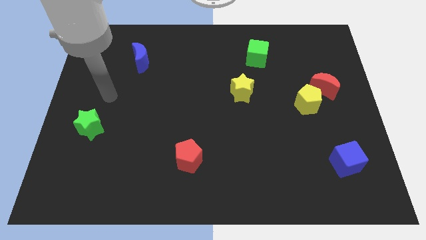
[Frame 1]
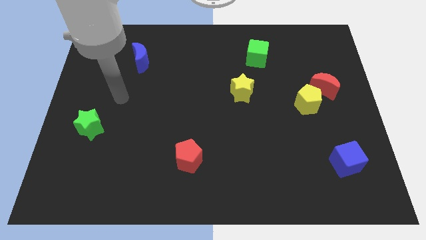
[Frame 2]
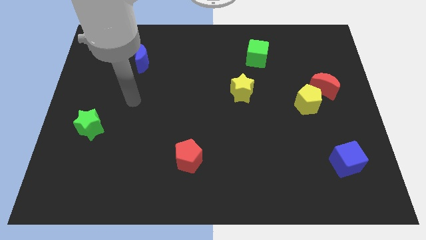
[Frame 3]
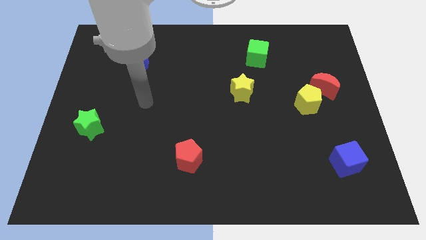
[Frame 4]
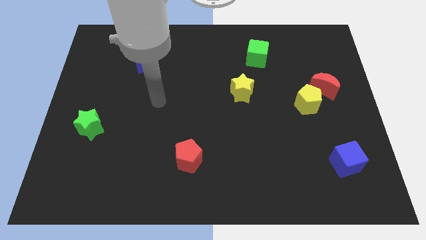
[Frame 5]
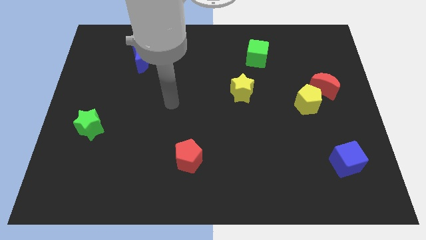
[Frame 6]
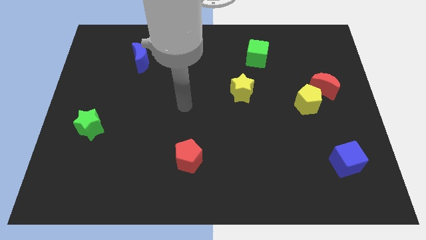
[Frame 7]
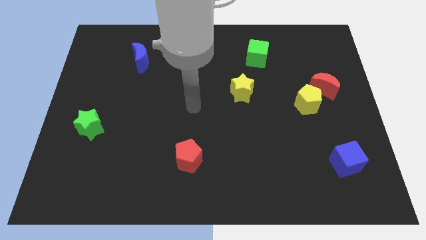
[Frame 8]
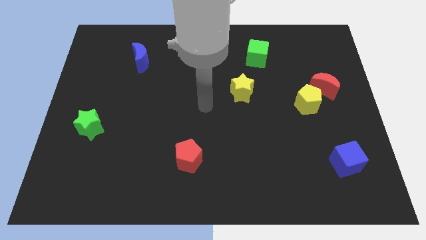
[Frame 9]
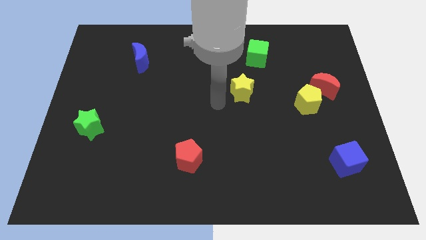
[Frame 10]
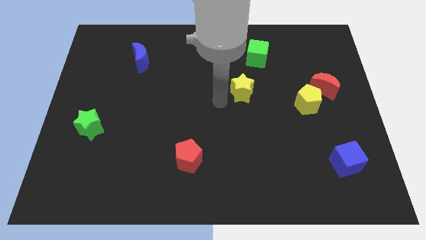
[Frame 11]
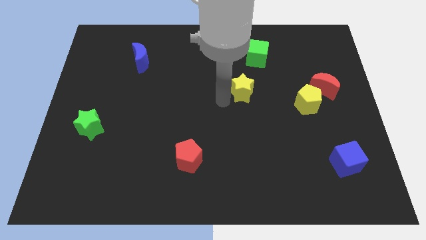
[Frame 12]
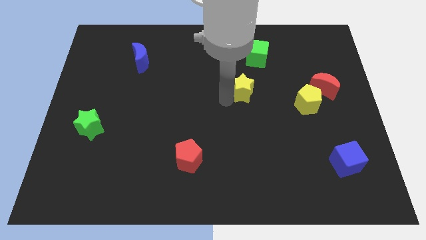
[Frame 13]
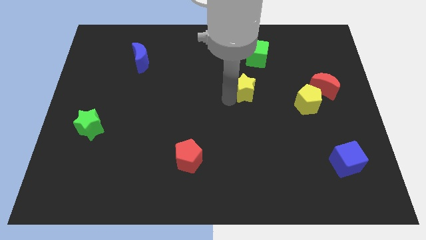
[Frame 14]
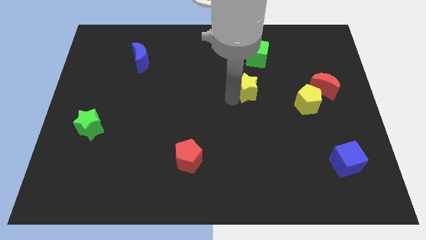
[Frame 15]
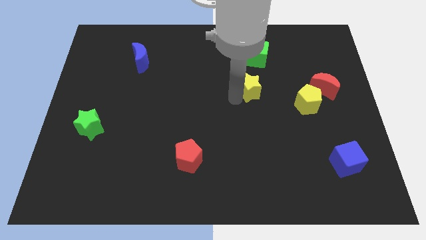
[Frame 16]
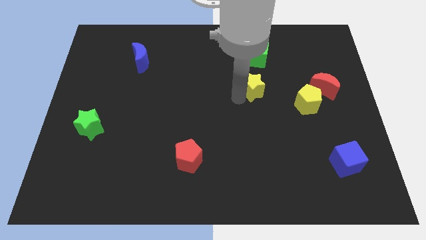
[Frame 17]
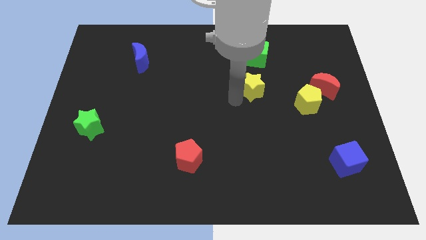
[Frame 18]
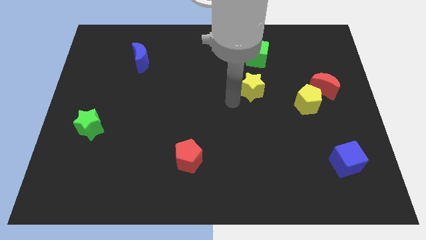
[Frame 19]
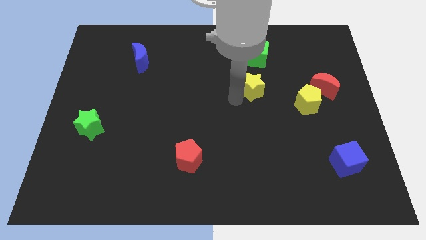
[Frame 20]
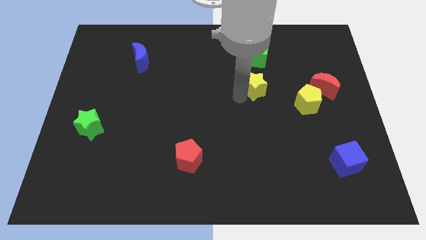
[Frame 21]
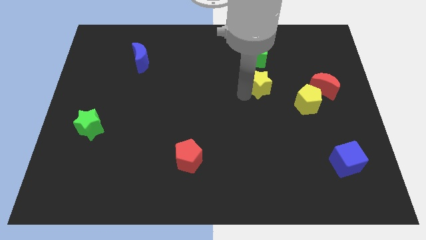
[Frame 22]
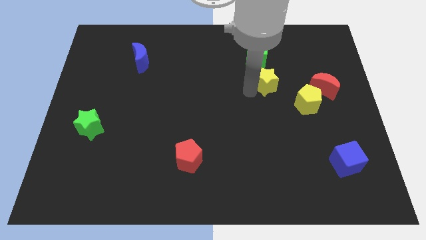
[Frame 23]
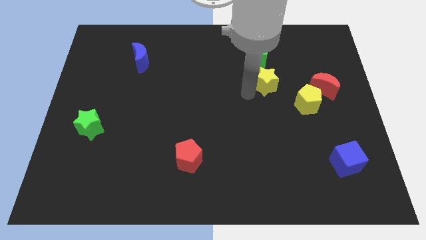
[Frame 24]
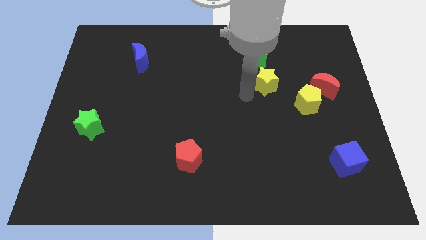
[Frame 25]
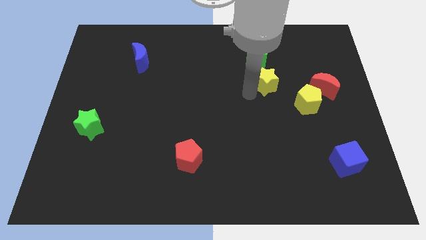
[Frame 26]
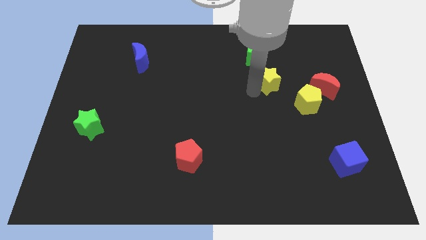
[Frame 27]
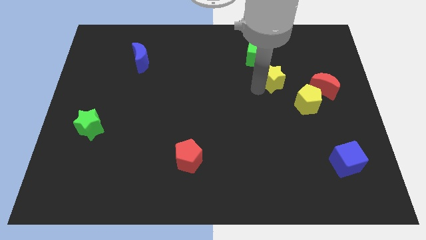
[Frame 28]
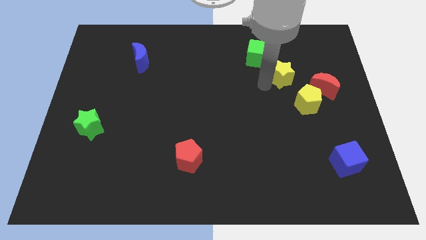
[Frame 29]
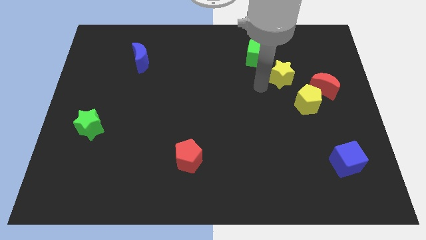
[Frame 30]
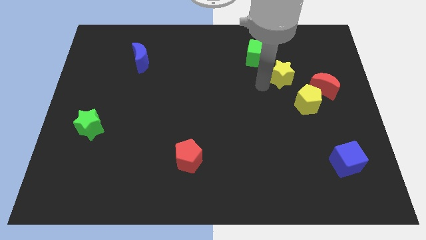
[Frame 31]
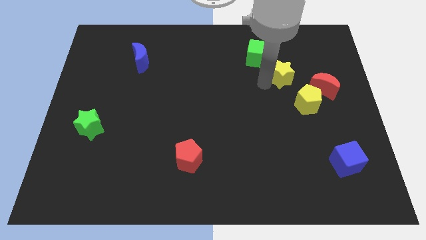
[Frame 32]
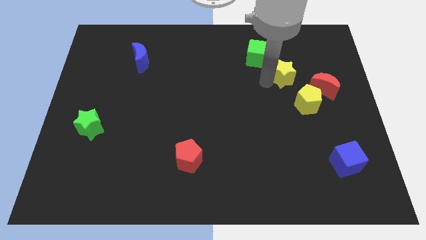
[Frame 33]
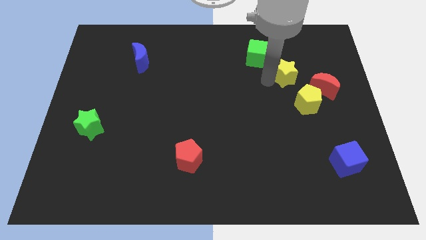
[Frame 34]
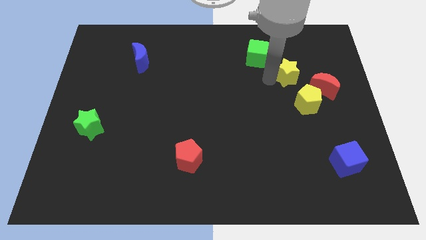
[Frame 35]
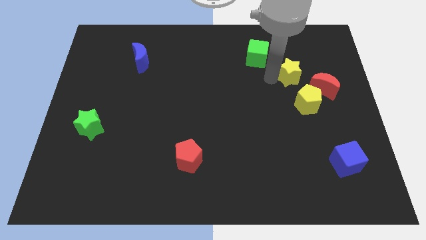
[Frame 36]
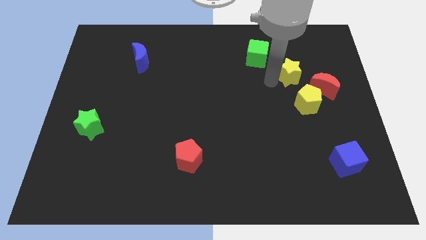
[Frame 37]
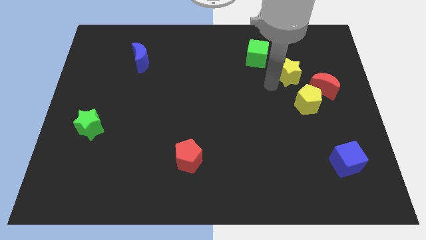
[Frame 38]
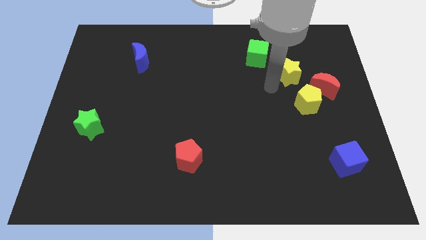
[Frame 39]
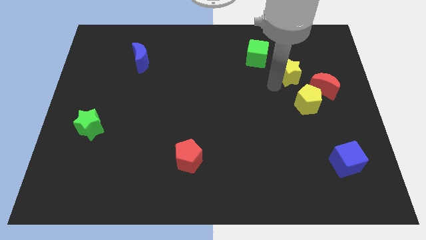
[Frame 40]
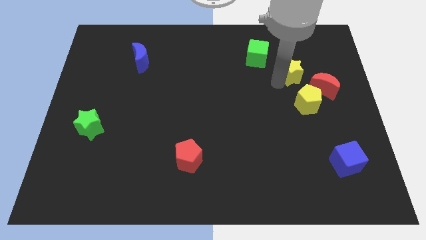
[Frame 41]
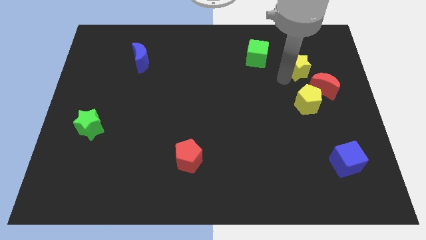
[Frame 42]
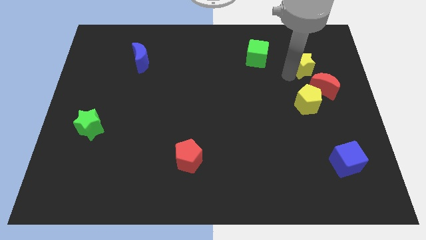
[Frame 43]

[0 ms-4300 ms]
slide the yellow star to the top of the red moon

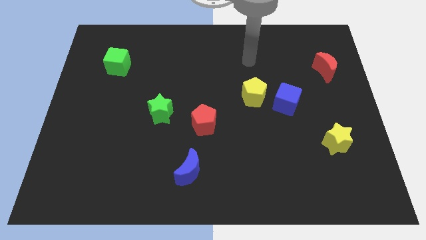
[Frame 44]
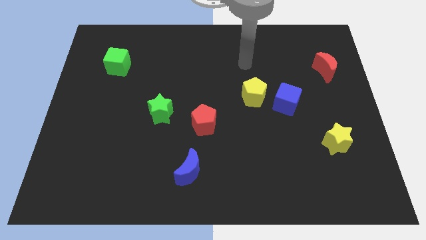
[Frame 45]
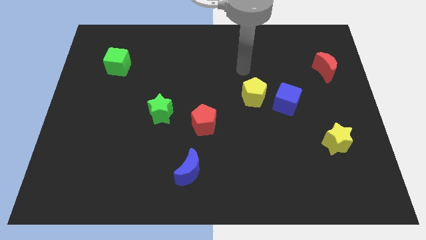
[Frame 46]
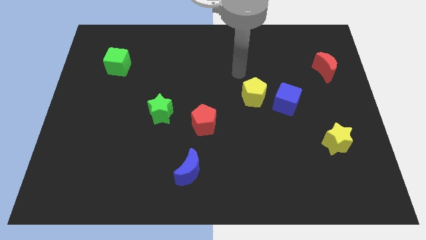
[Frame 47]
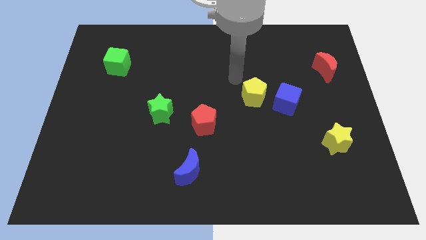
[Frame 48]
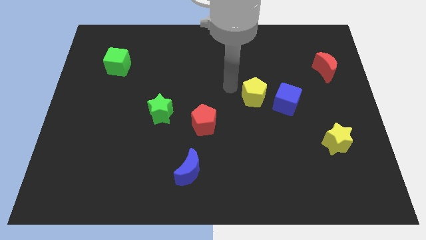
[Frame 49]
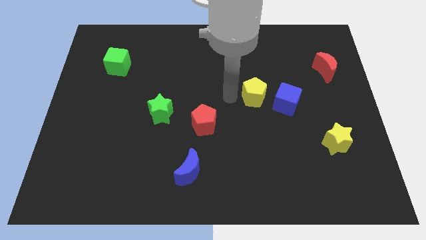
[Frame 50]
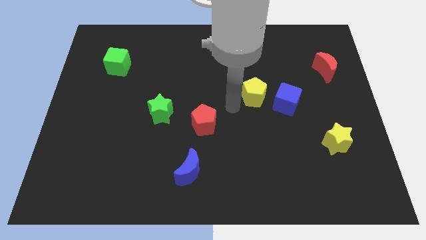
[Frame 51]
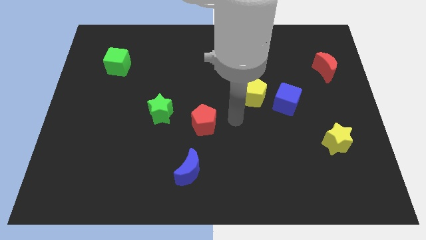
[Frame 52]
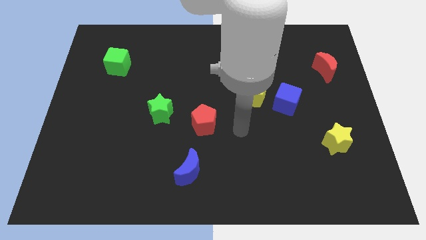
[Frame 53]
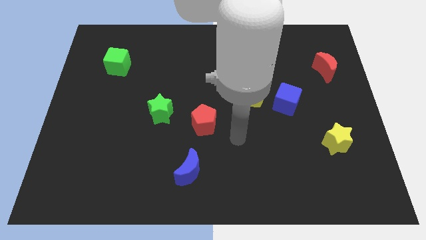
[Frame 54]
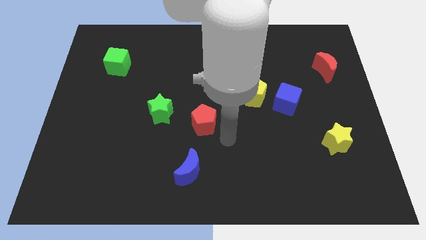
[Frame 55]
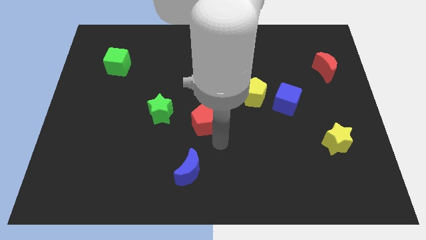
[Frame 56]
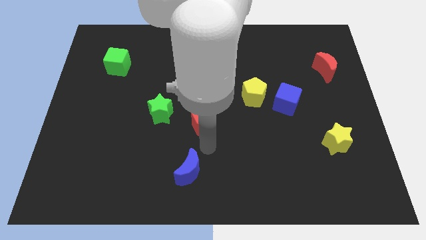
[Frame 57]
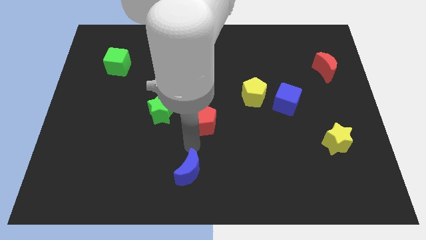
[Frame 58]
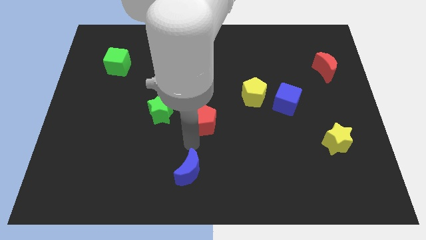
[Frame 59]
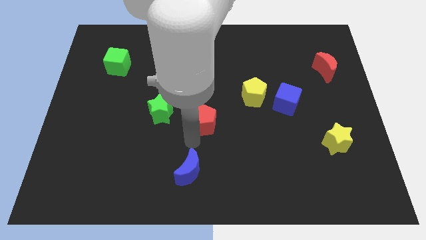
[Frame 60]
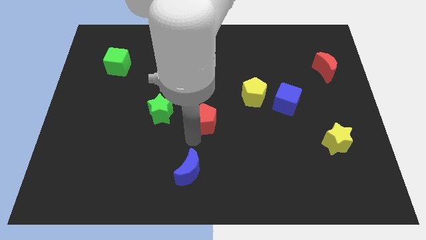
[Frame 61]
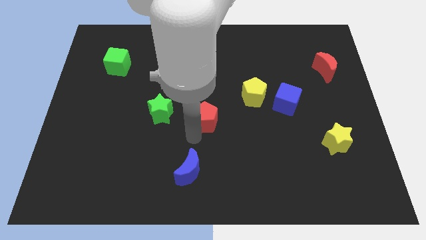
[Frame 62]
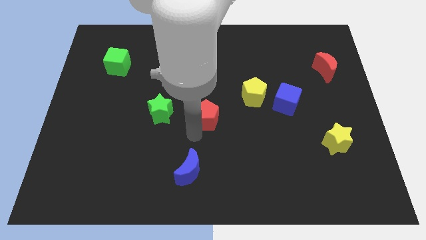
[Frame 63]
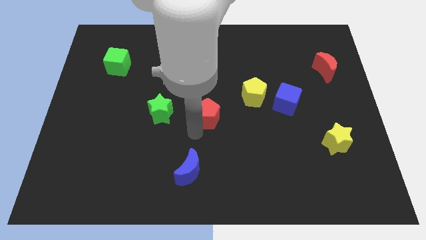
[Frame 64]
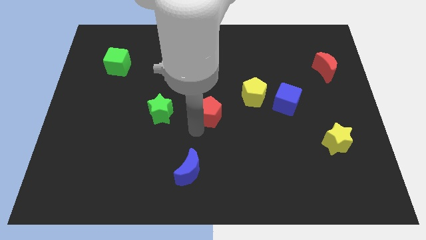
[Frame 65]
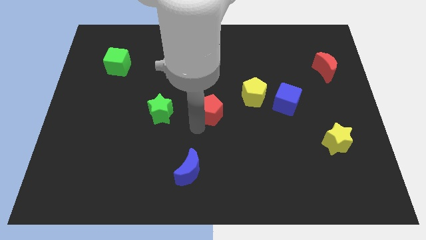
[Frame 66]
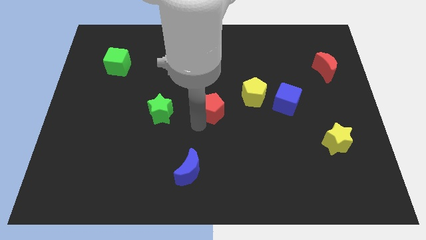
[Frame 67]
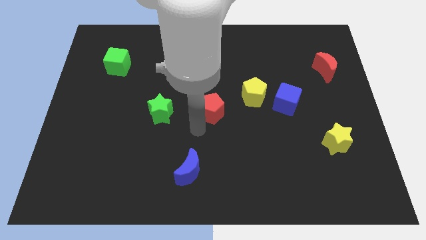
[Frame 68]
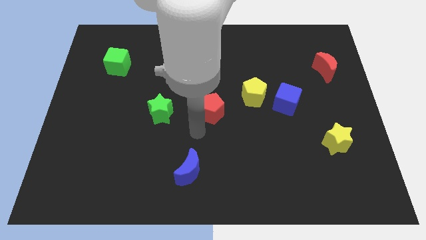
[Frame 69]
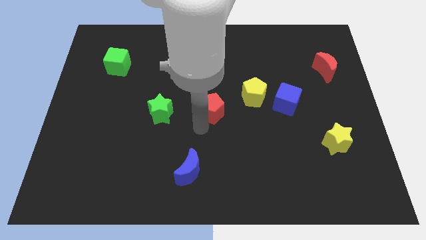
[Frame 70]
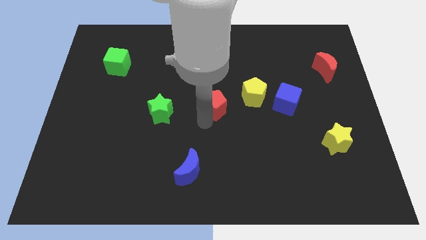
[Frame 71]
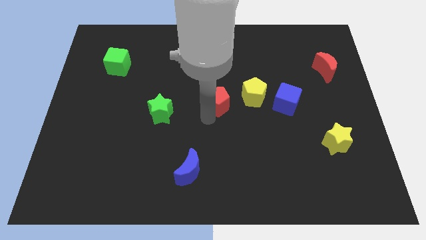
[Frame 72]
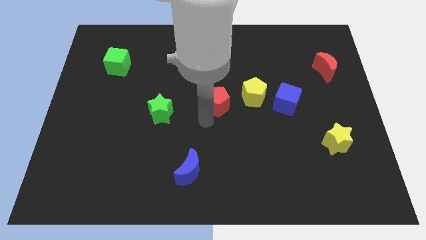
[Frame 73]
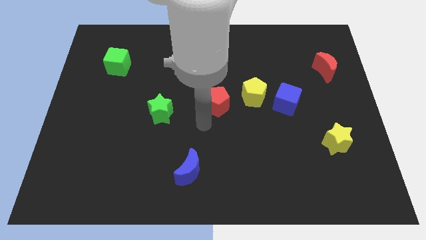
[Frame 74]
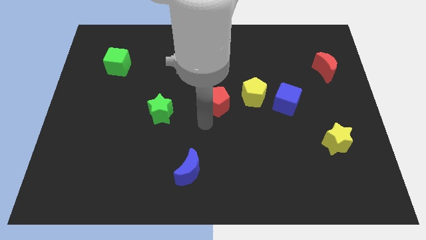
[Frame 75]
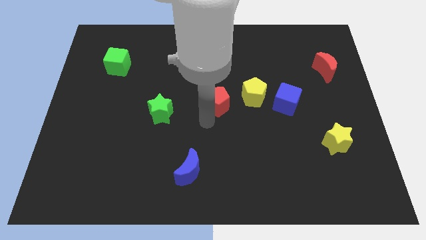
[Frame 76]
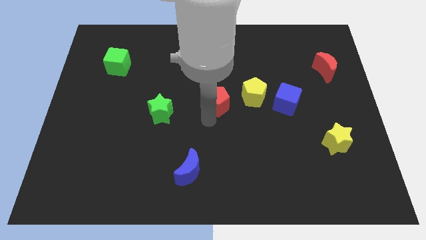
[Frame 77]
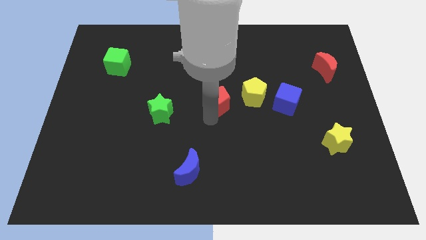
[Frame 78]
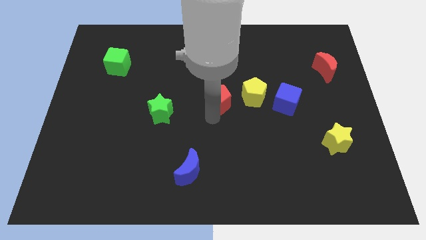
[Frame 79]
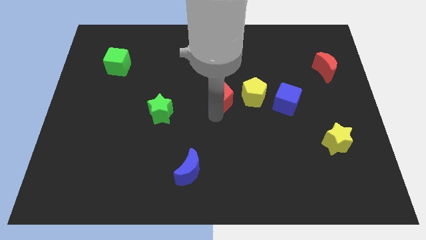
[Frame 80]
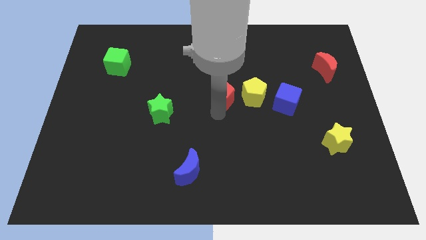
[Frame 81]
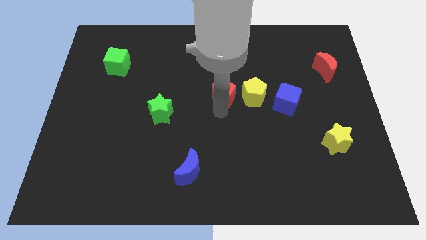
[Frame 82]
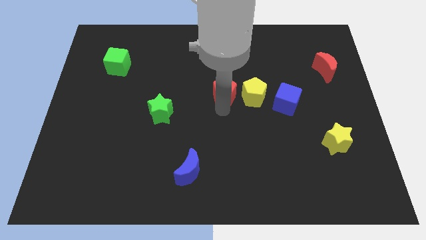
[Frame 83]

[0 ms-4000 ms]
push the red pentagon to the top left side of the yellow pentagon
